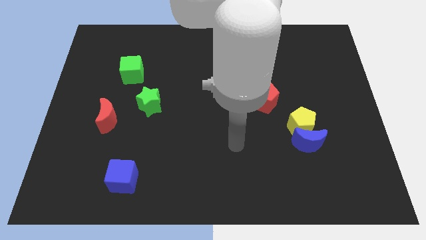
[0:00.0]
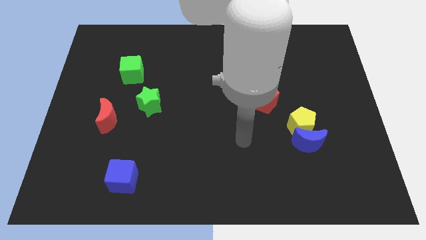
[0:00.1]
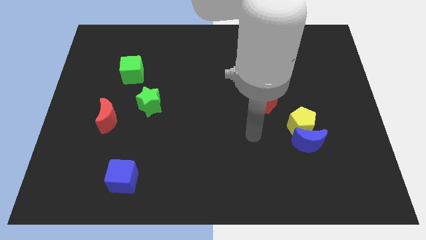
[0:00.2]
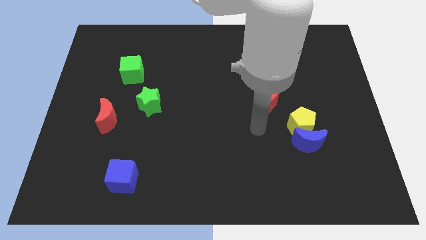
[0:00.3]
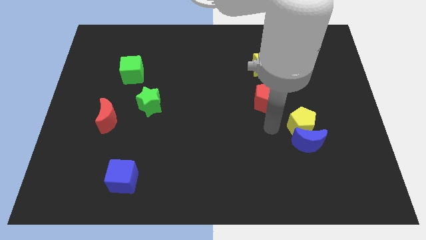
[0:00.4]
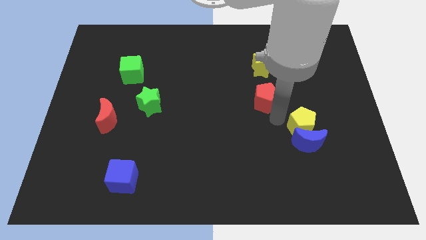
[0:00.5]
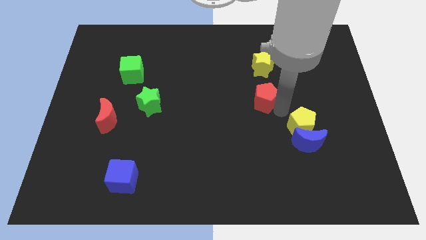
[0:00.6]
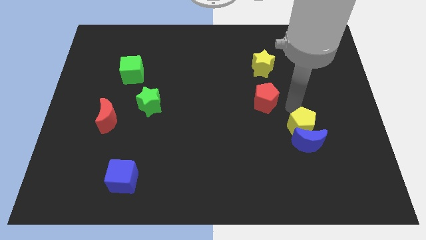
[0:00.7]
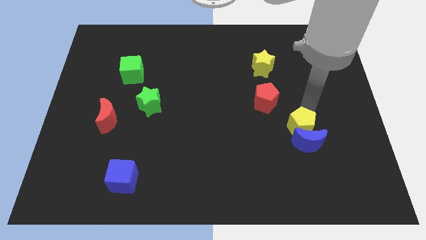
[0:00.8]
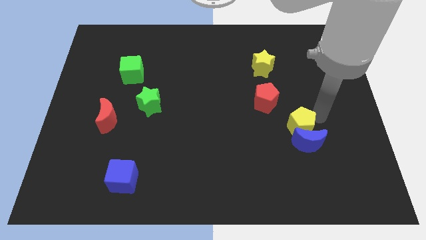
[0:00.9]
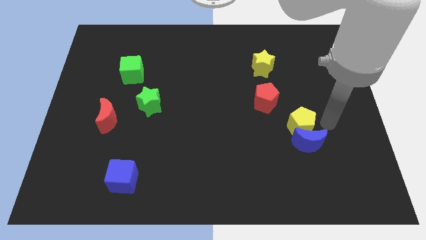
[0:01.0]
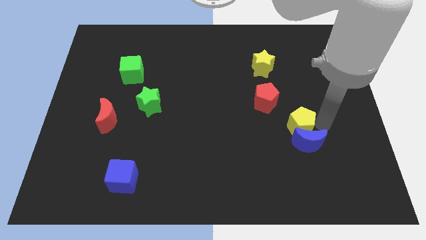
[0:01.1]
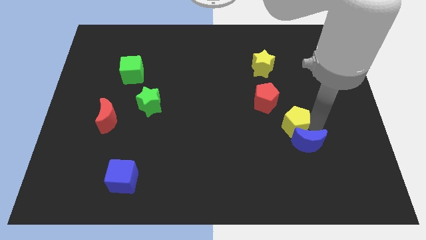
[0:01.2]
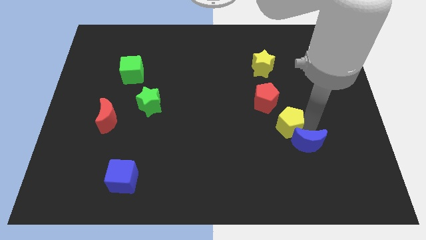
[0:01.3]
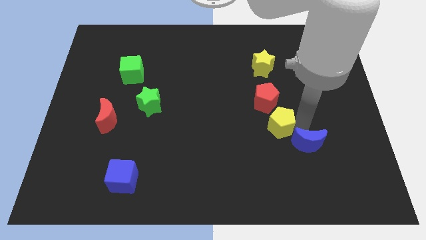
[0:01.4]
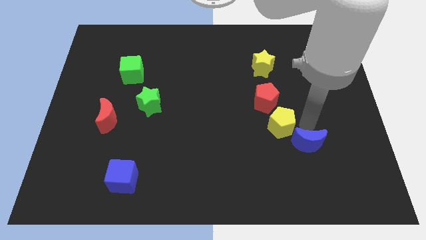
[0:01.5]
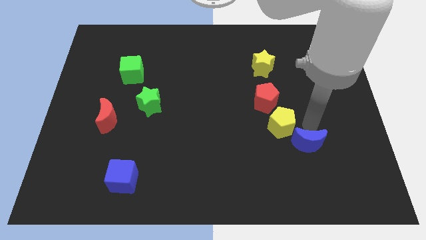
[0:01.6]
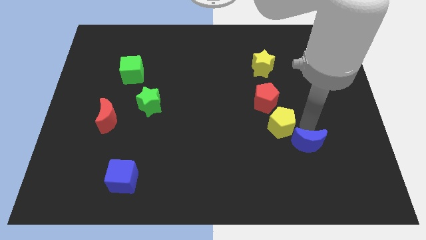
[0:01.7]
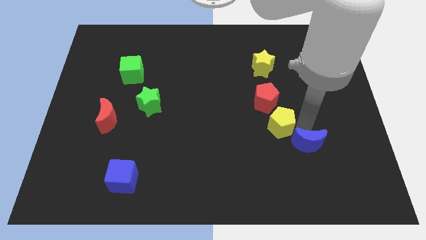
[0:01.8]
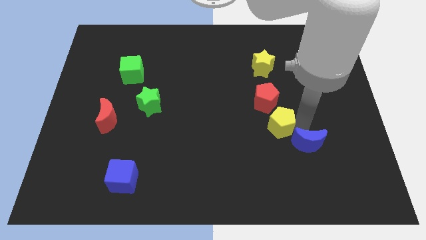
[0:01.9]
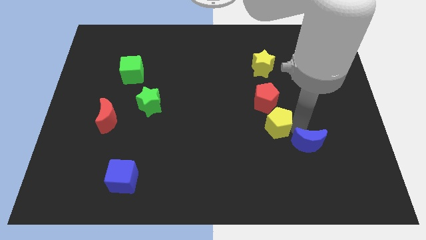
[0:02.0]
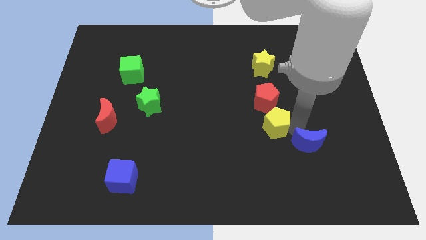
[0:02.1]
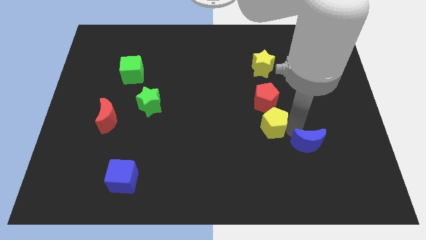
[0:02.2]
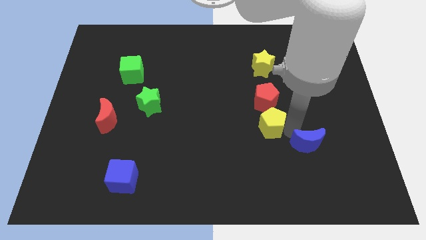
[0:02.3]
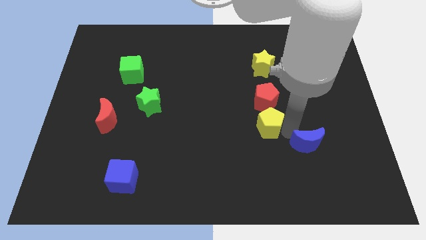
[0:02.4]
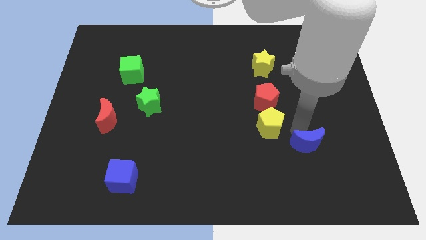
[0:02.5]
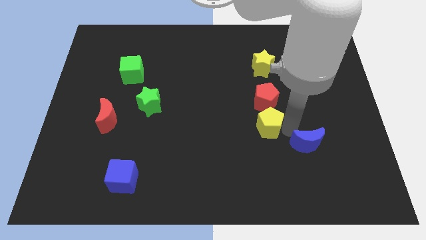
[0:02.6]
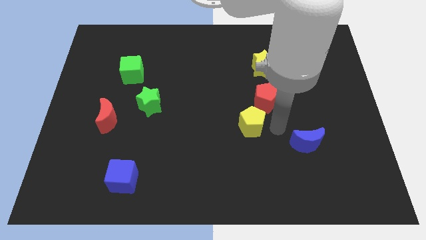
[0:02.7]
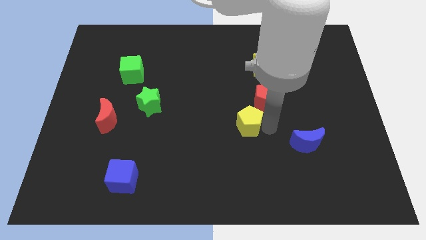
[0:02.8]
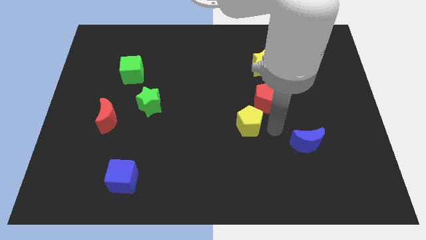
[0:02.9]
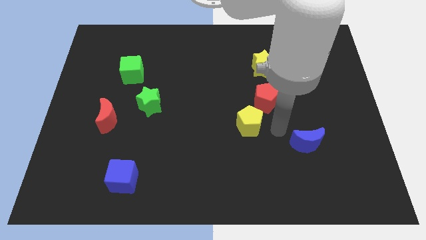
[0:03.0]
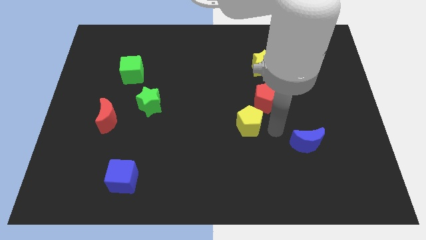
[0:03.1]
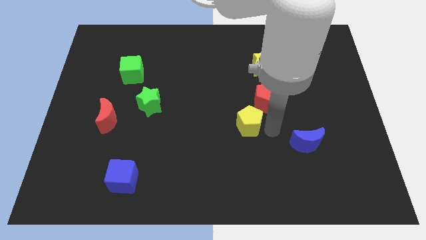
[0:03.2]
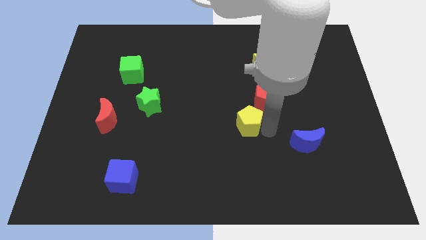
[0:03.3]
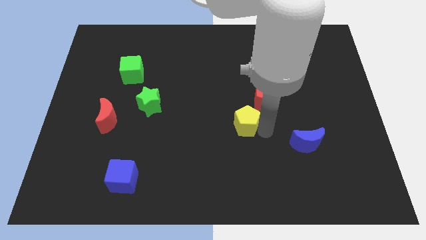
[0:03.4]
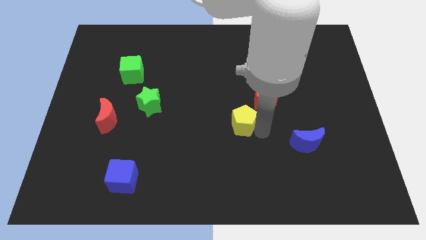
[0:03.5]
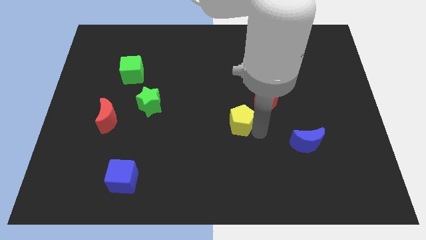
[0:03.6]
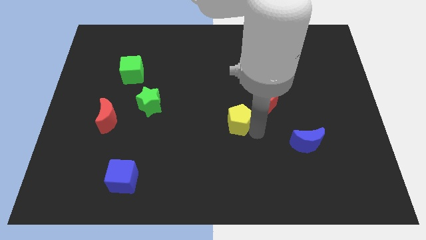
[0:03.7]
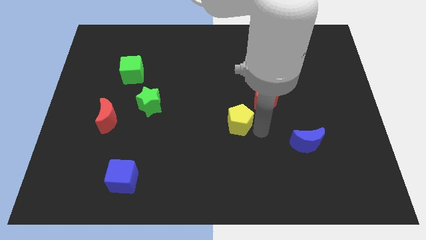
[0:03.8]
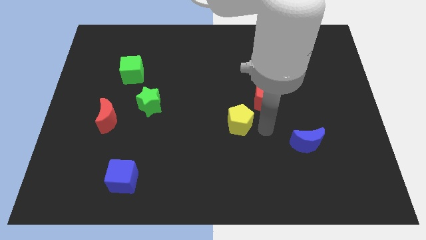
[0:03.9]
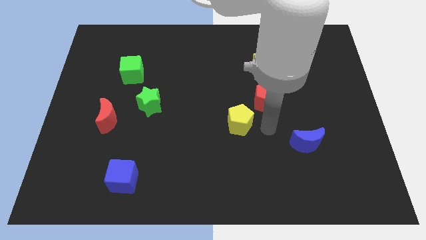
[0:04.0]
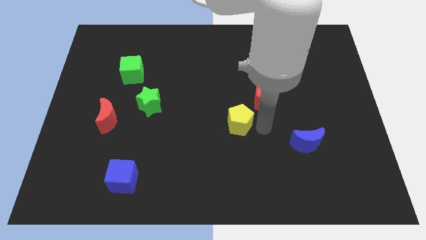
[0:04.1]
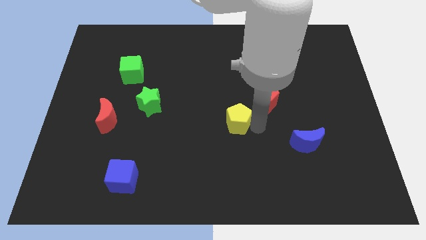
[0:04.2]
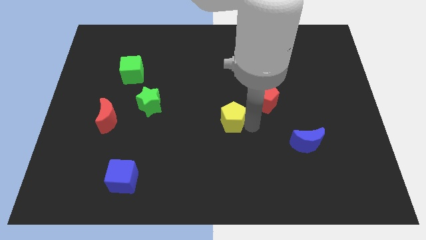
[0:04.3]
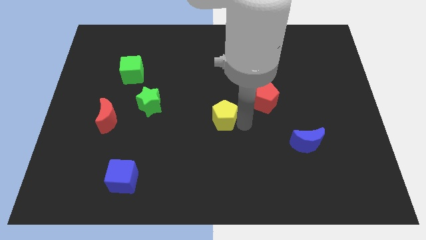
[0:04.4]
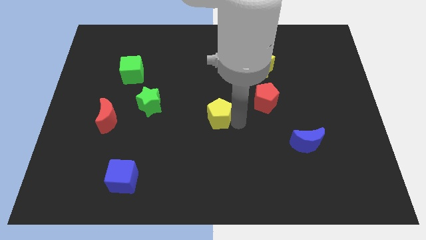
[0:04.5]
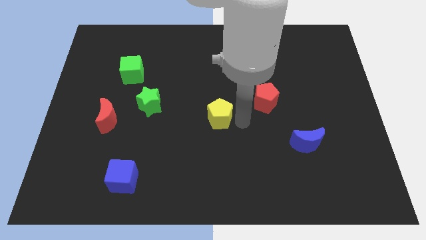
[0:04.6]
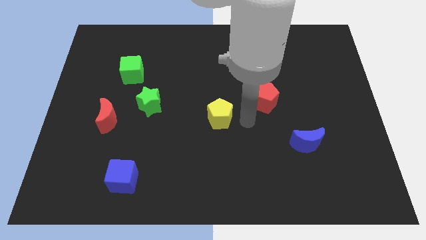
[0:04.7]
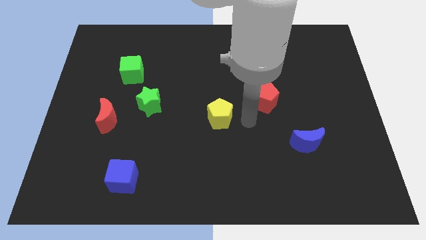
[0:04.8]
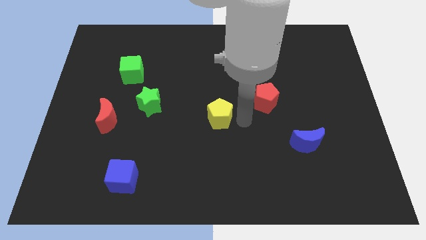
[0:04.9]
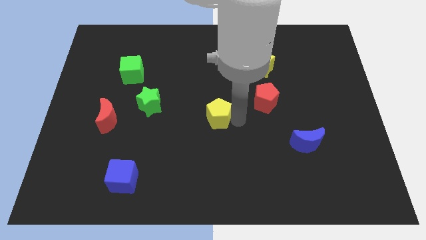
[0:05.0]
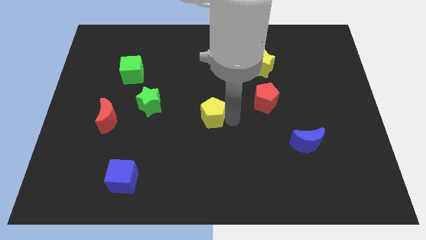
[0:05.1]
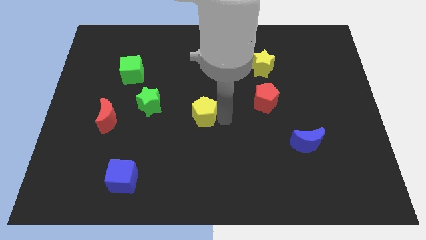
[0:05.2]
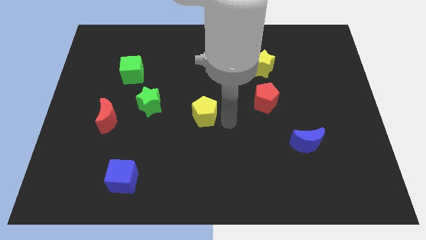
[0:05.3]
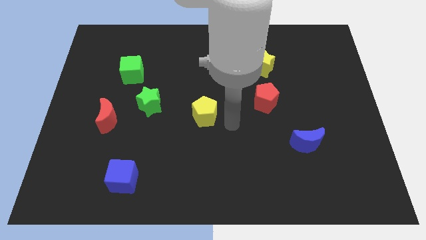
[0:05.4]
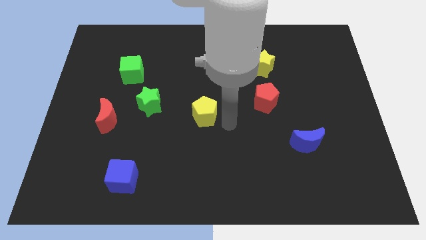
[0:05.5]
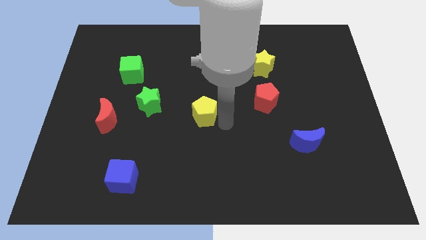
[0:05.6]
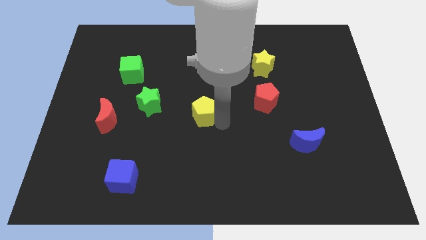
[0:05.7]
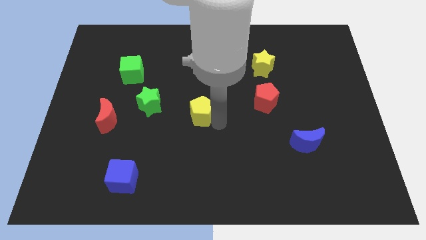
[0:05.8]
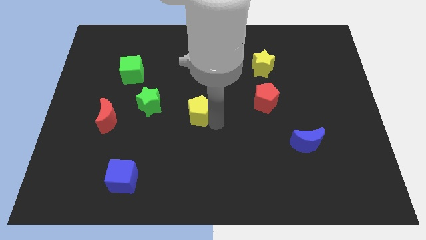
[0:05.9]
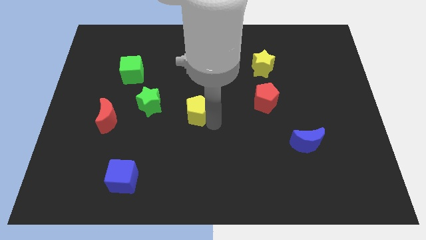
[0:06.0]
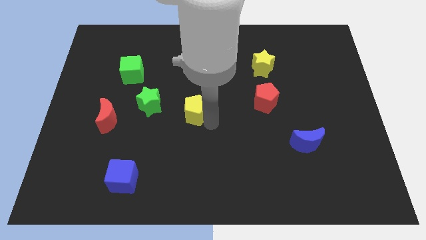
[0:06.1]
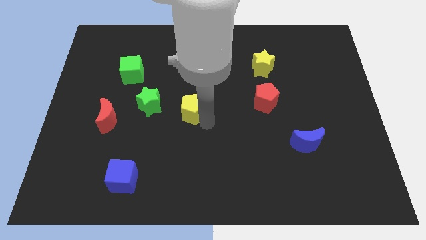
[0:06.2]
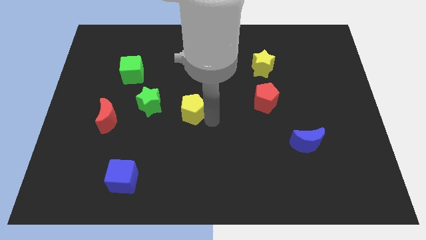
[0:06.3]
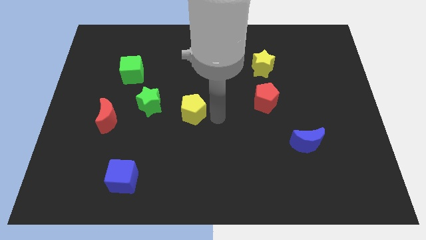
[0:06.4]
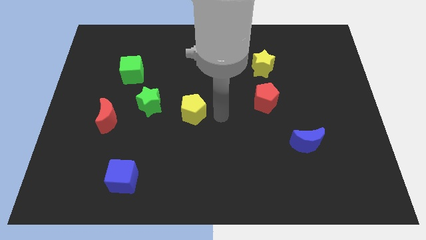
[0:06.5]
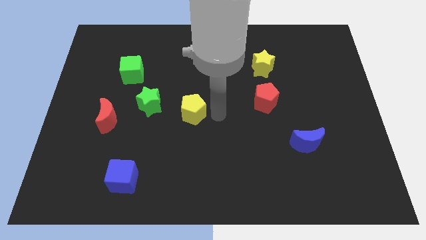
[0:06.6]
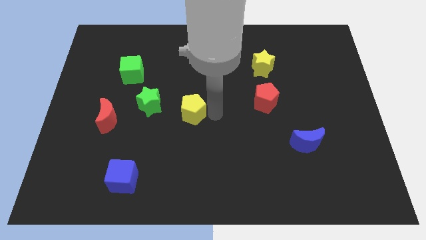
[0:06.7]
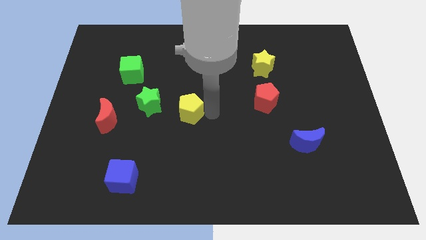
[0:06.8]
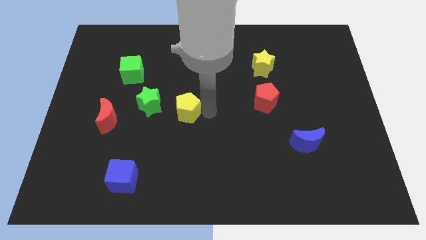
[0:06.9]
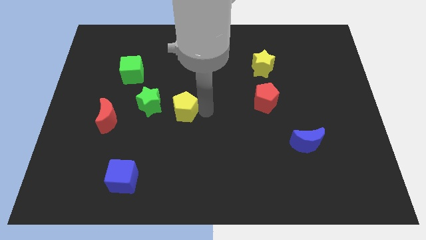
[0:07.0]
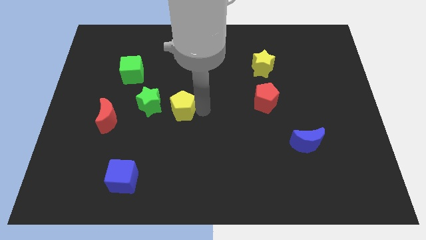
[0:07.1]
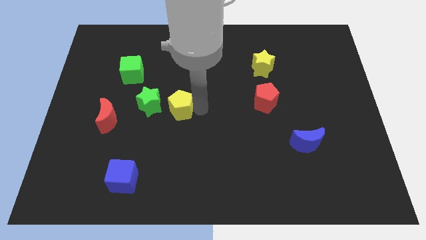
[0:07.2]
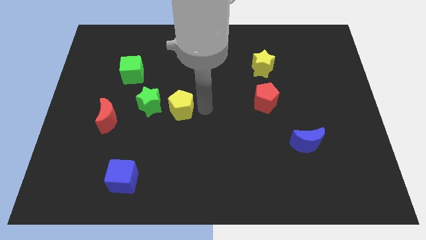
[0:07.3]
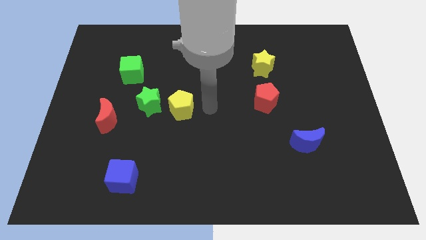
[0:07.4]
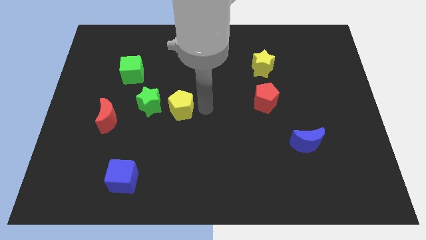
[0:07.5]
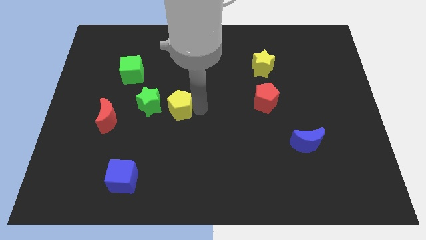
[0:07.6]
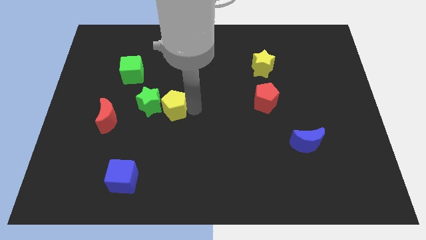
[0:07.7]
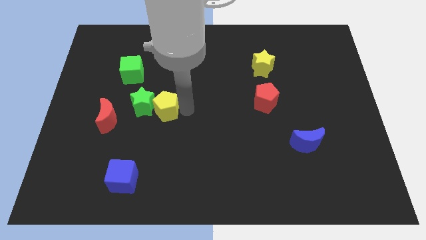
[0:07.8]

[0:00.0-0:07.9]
push the yellow pentagon towards the green star
